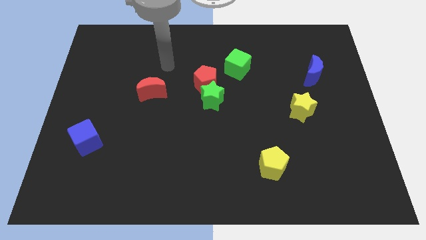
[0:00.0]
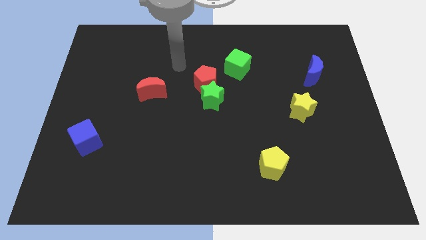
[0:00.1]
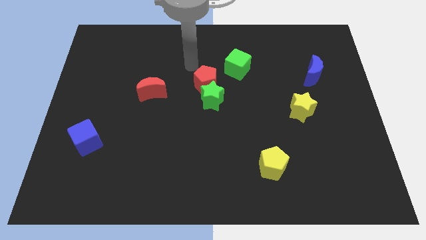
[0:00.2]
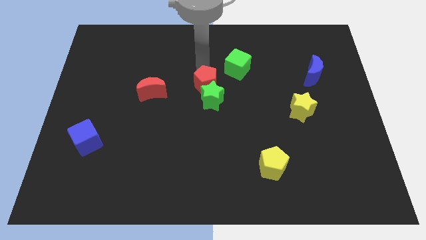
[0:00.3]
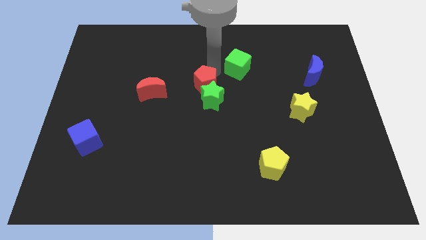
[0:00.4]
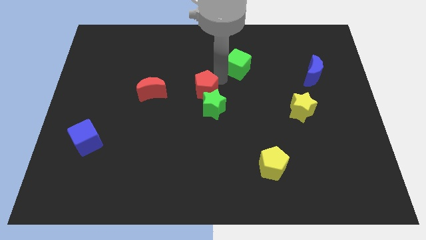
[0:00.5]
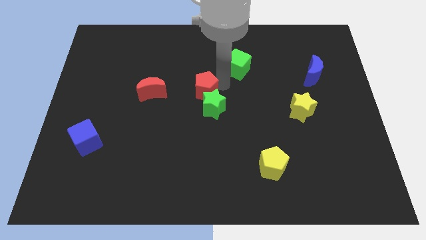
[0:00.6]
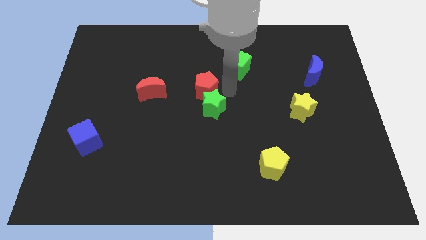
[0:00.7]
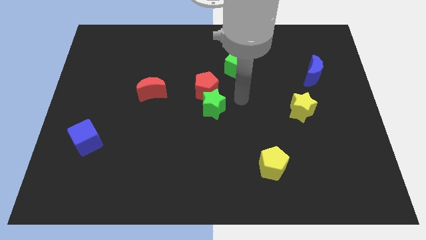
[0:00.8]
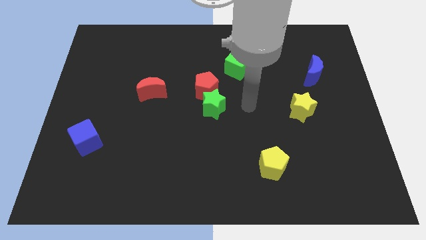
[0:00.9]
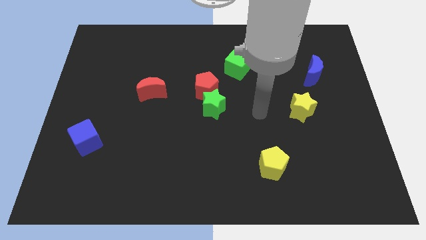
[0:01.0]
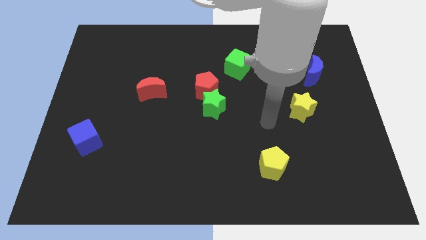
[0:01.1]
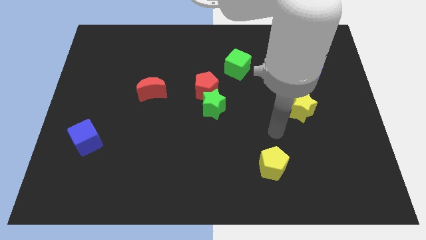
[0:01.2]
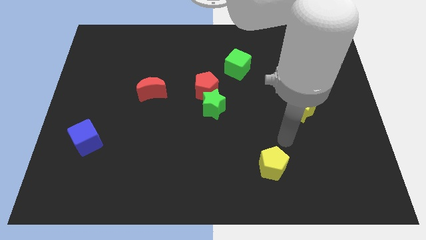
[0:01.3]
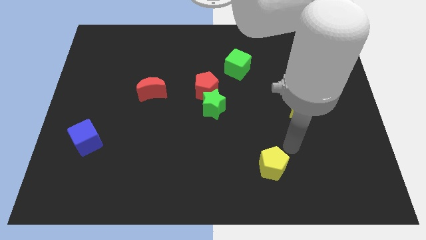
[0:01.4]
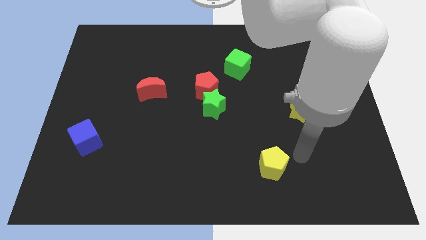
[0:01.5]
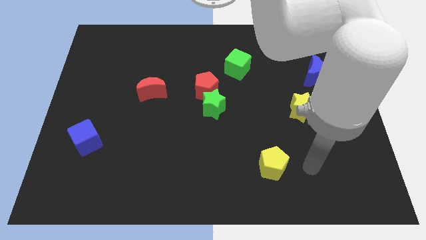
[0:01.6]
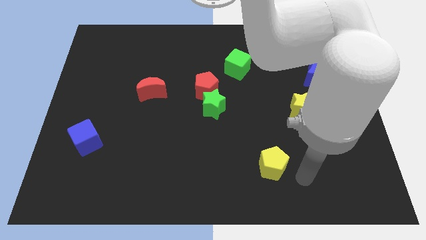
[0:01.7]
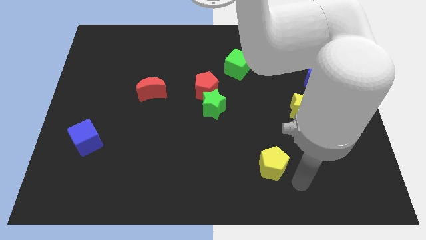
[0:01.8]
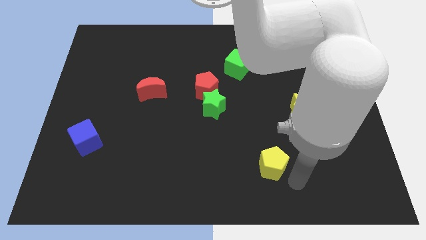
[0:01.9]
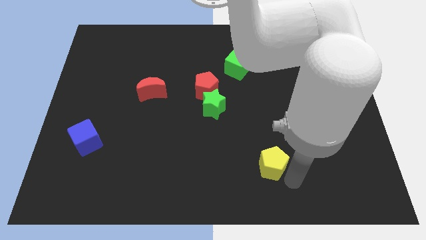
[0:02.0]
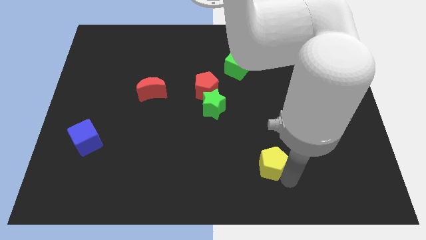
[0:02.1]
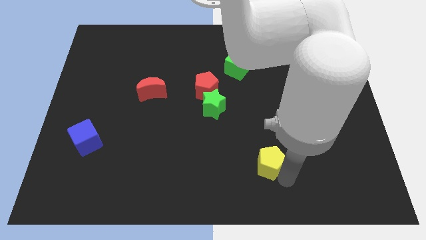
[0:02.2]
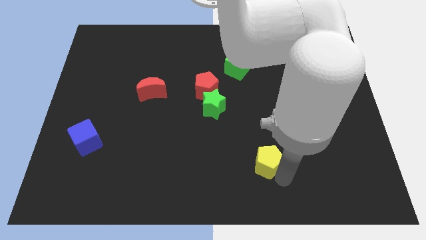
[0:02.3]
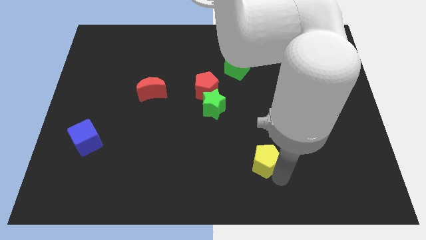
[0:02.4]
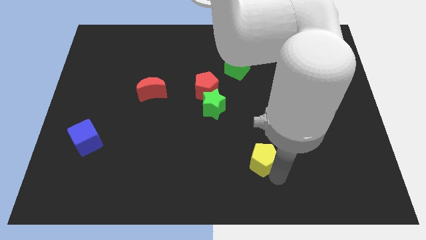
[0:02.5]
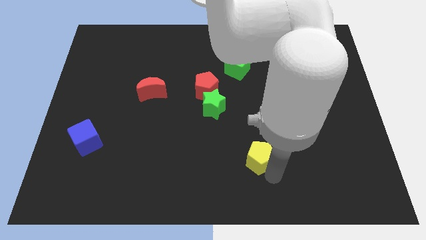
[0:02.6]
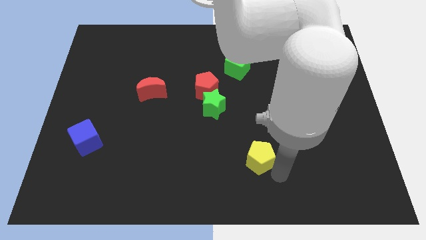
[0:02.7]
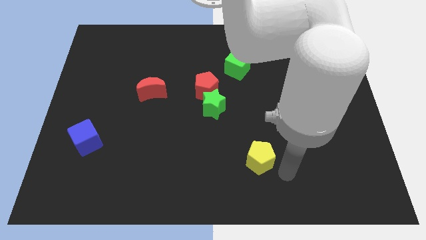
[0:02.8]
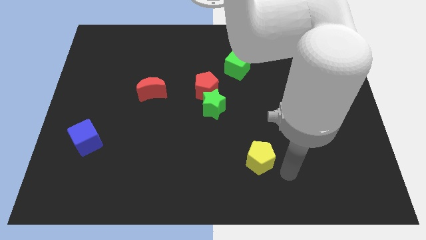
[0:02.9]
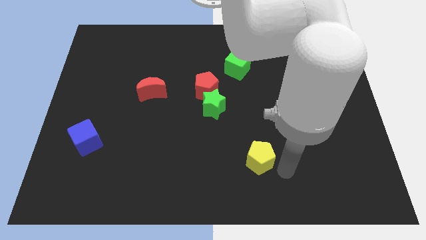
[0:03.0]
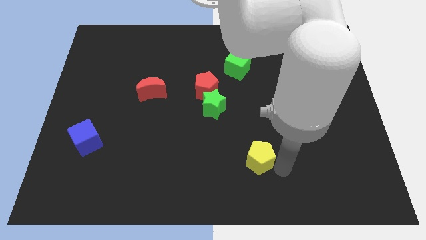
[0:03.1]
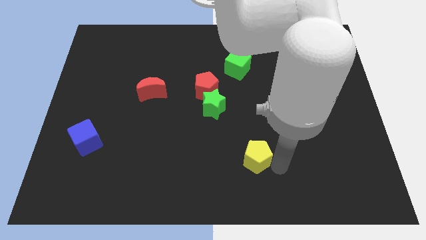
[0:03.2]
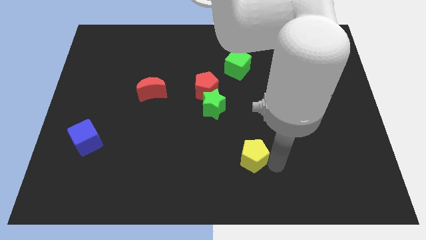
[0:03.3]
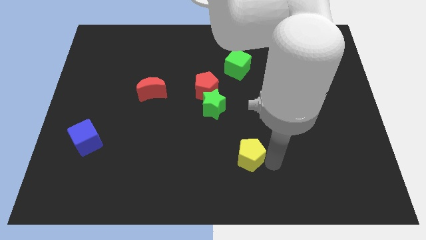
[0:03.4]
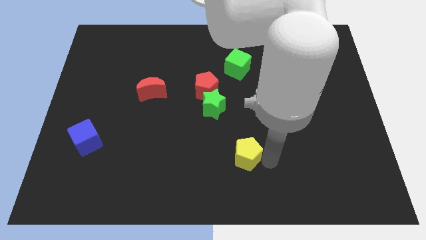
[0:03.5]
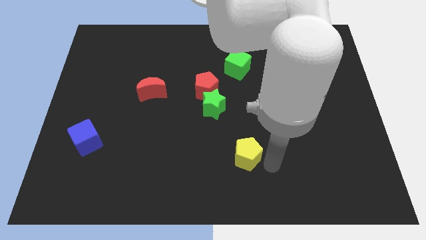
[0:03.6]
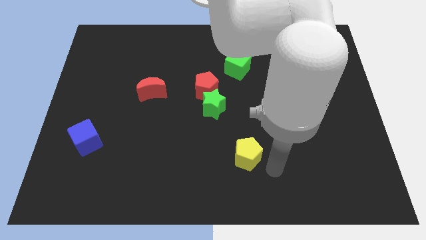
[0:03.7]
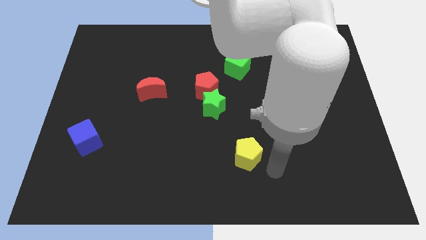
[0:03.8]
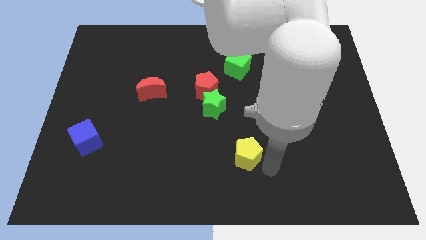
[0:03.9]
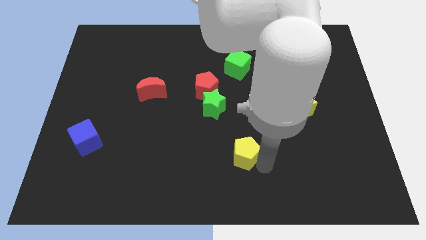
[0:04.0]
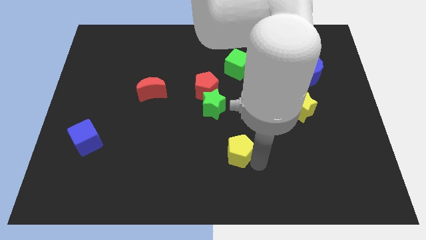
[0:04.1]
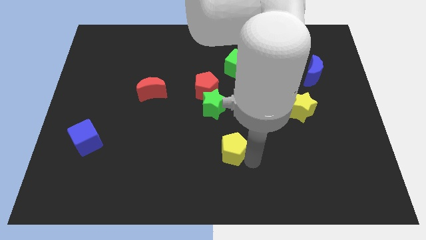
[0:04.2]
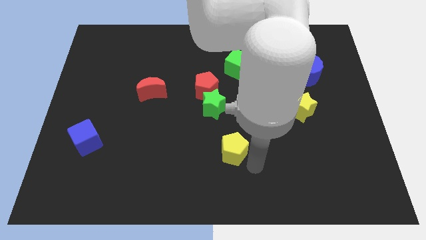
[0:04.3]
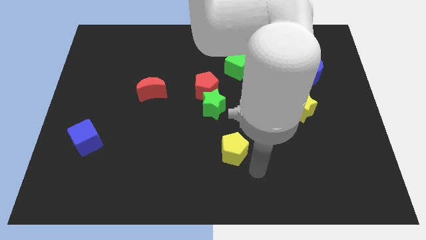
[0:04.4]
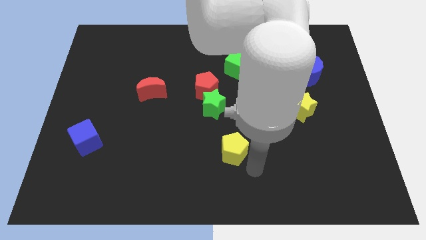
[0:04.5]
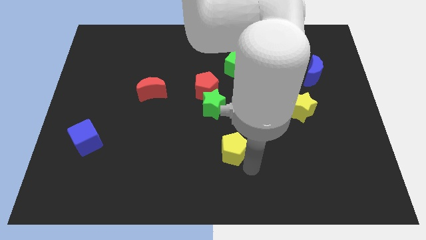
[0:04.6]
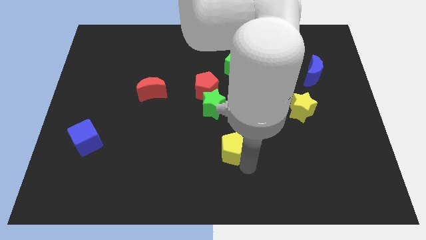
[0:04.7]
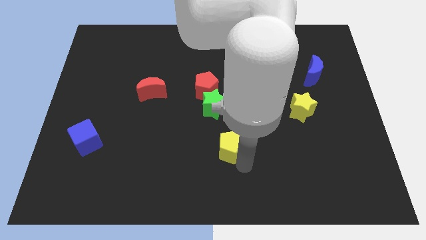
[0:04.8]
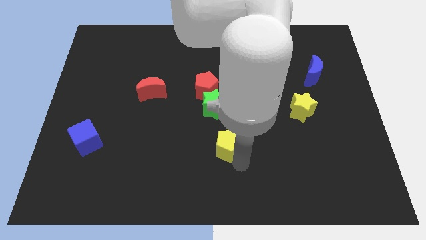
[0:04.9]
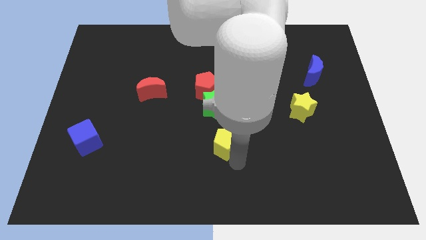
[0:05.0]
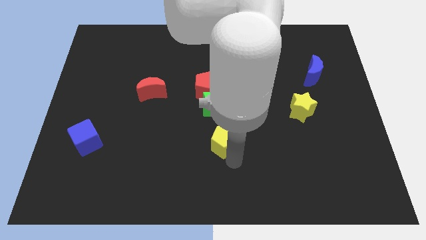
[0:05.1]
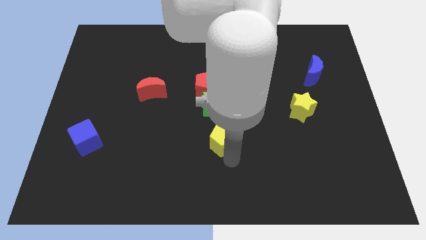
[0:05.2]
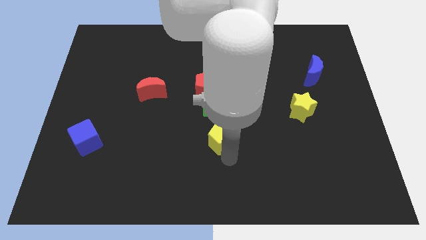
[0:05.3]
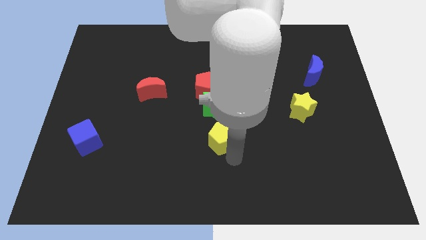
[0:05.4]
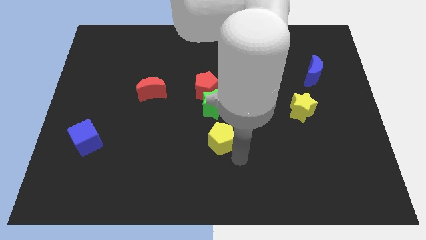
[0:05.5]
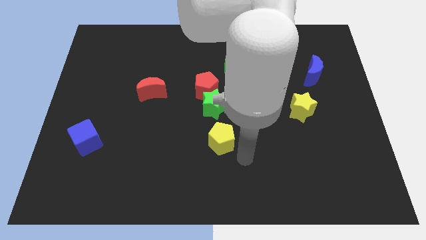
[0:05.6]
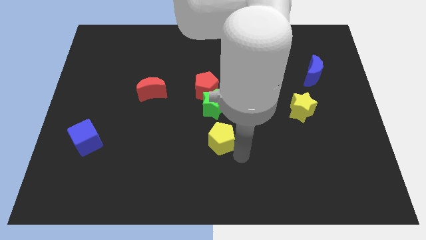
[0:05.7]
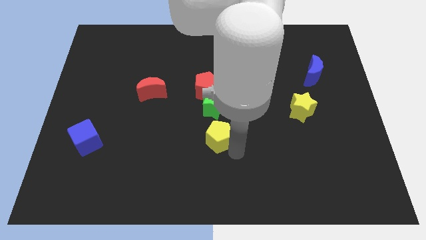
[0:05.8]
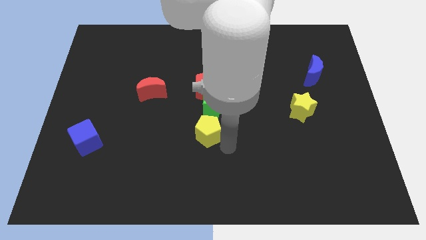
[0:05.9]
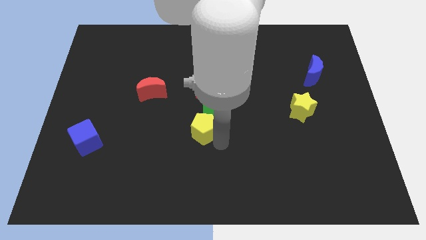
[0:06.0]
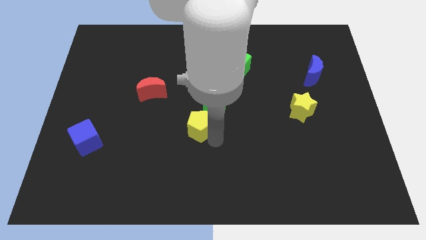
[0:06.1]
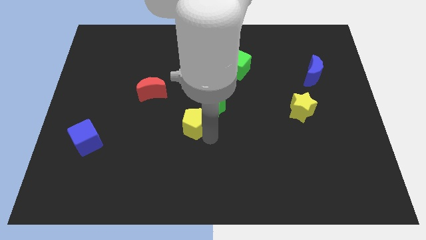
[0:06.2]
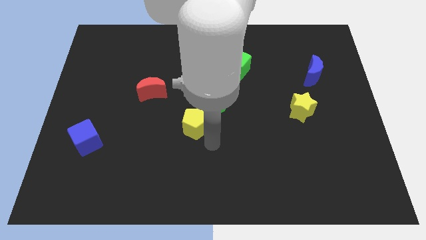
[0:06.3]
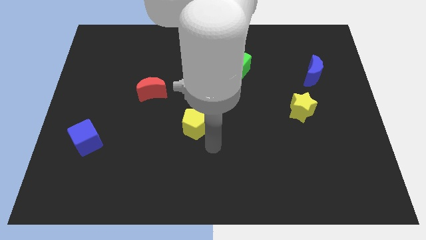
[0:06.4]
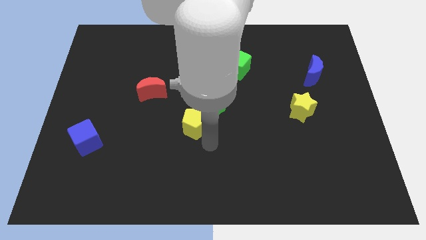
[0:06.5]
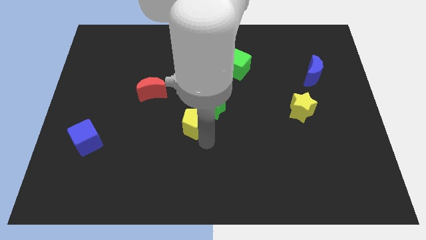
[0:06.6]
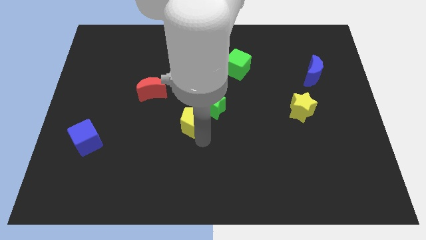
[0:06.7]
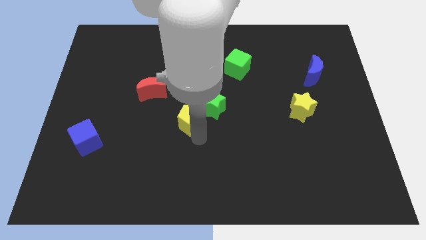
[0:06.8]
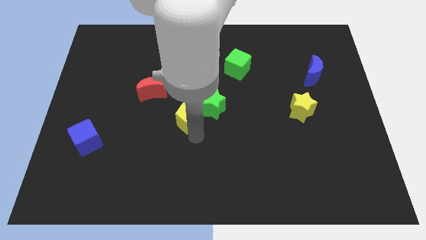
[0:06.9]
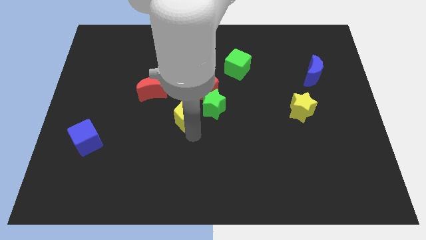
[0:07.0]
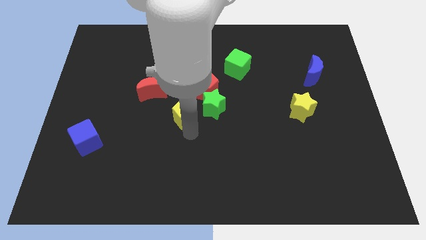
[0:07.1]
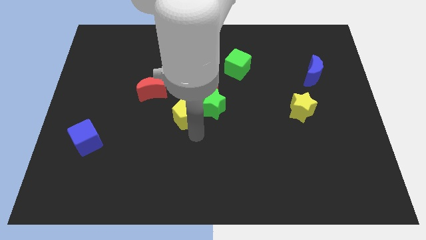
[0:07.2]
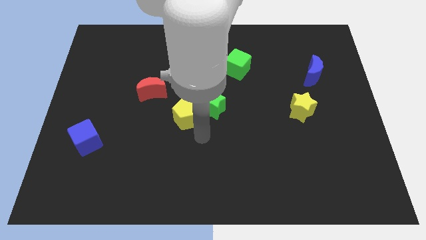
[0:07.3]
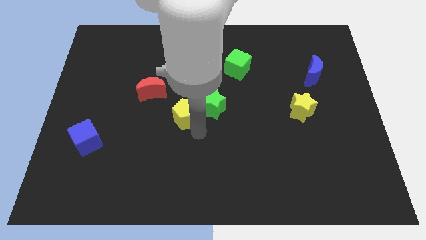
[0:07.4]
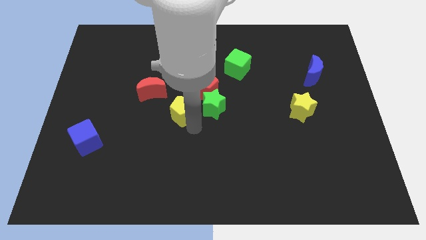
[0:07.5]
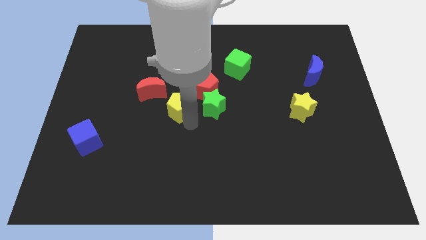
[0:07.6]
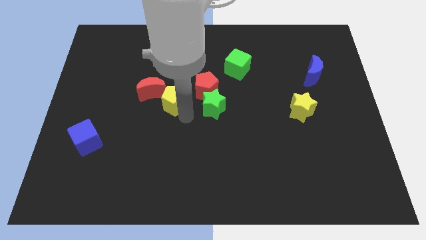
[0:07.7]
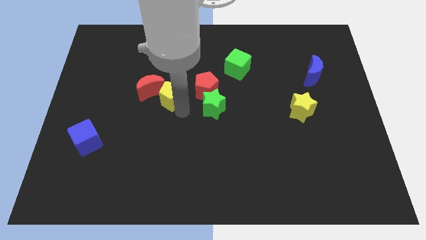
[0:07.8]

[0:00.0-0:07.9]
move the yellow pentagon to the red moon
